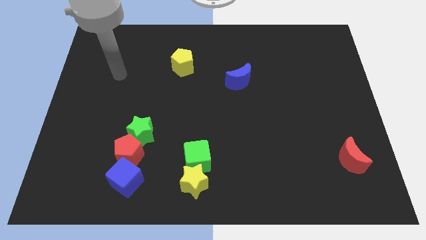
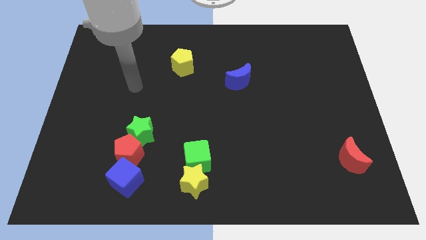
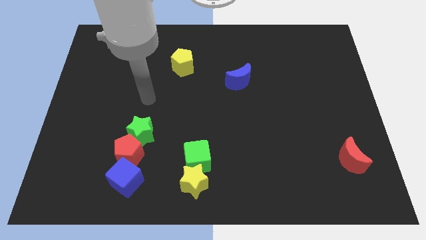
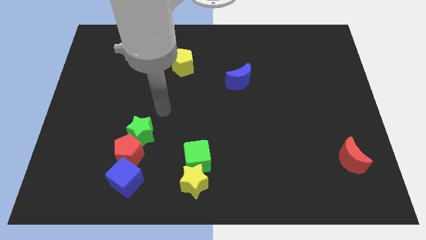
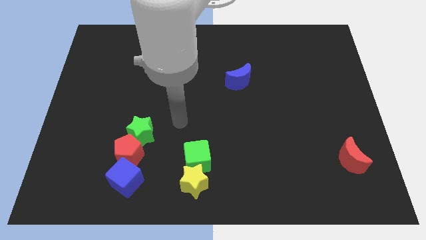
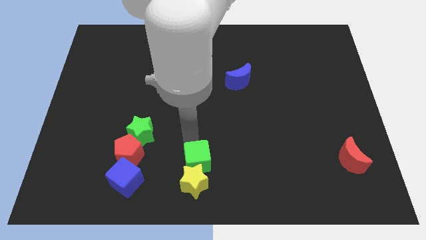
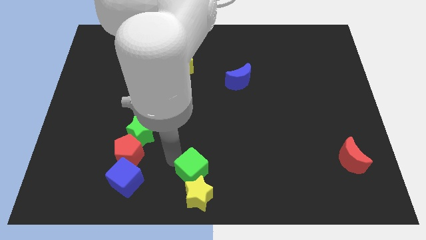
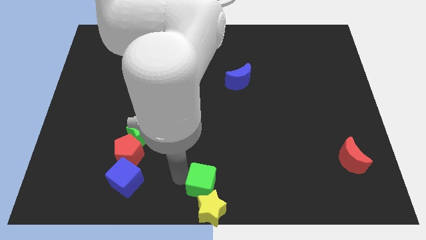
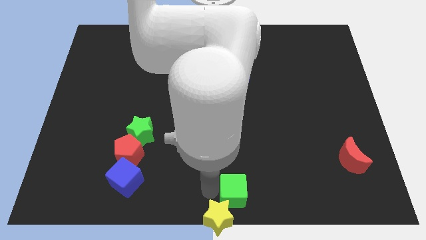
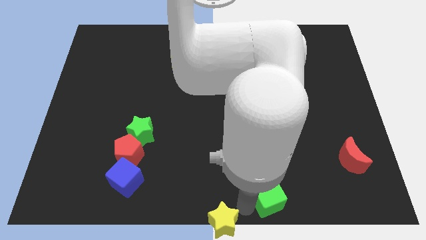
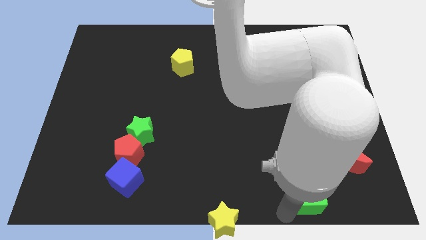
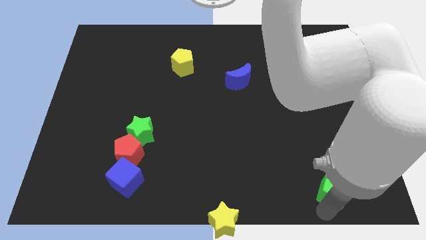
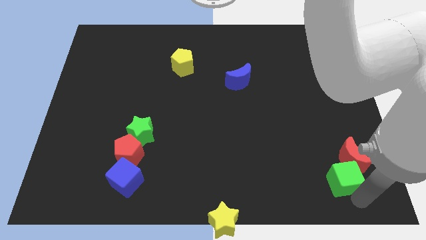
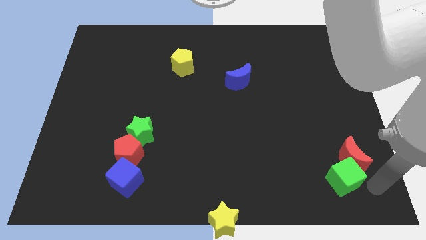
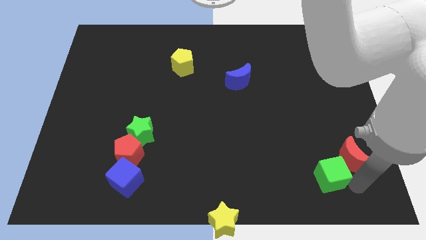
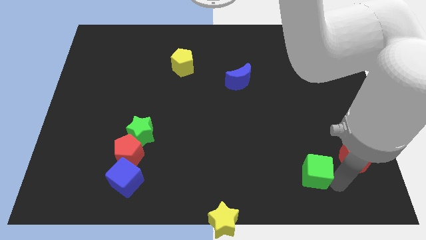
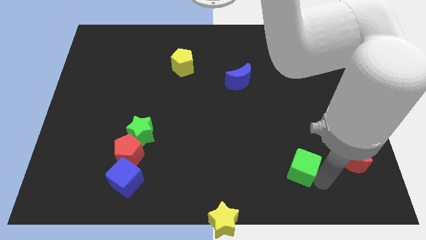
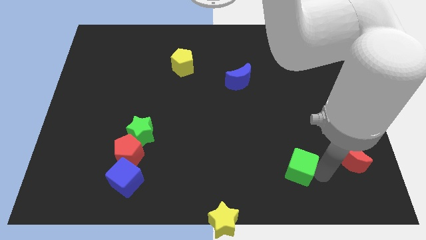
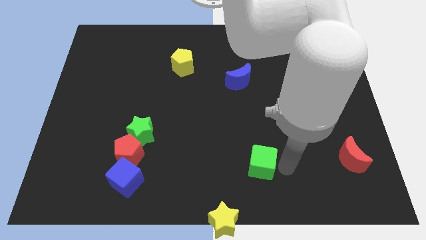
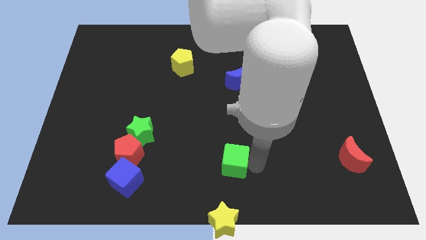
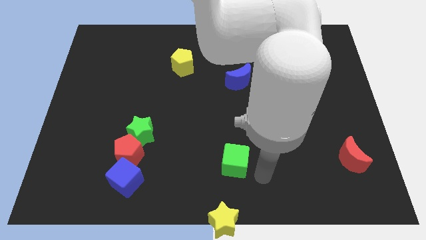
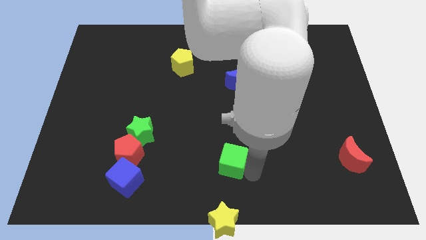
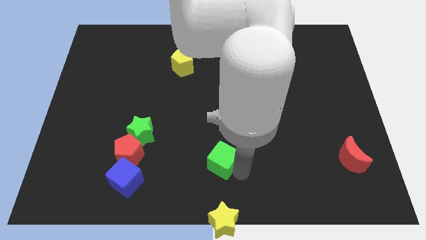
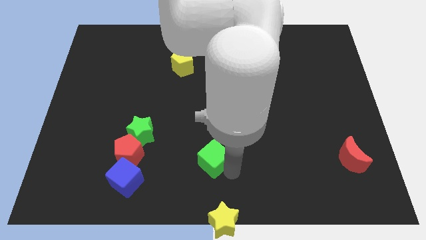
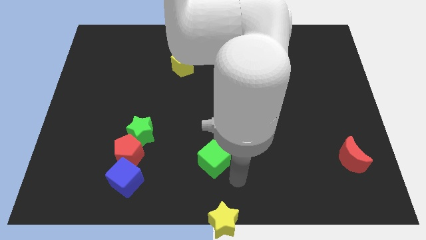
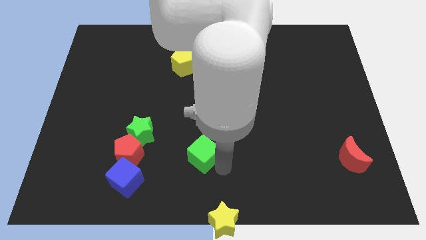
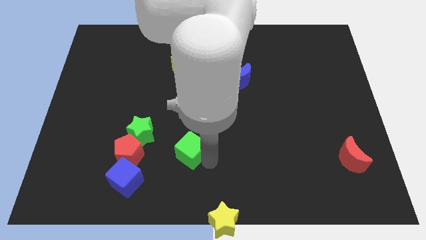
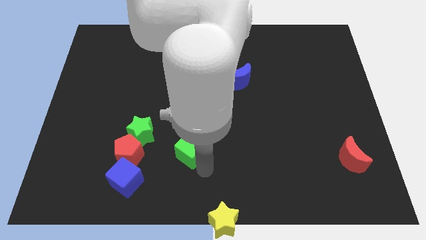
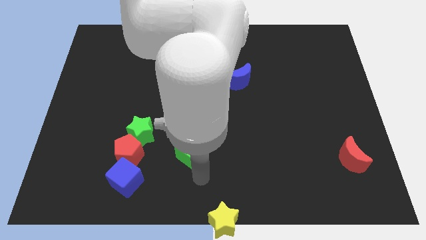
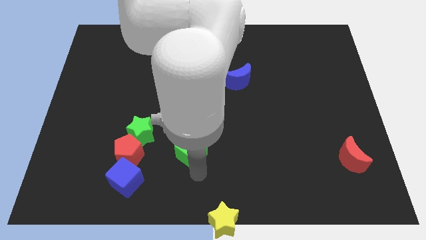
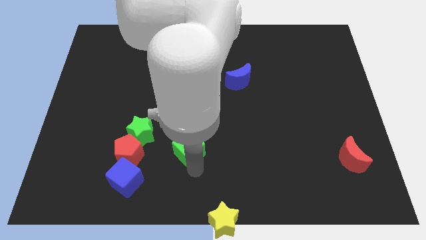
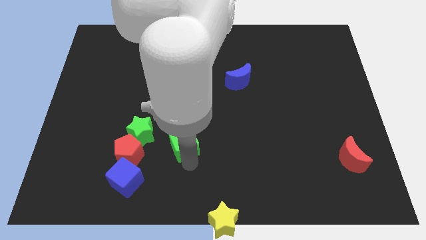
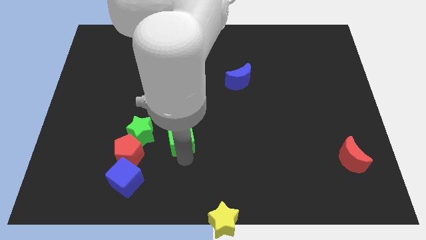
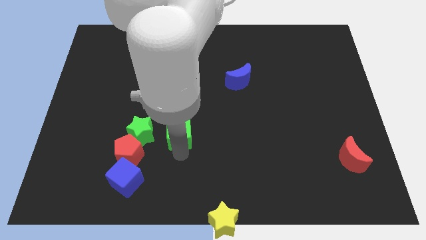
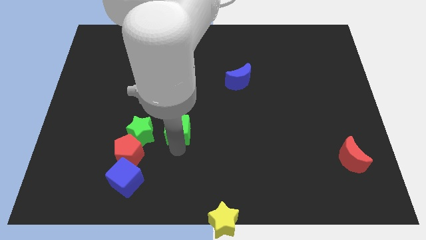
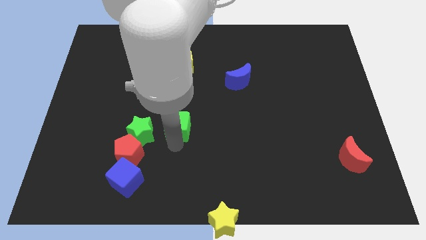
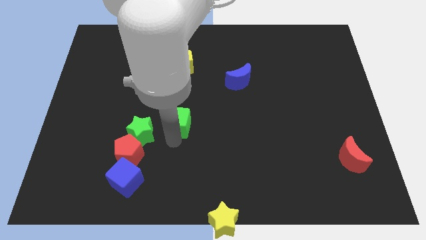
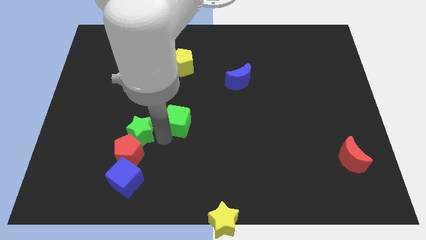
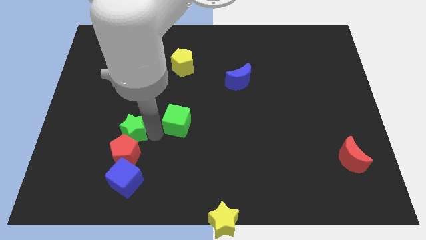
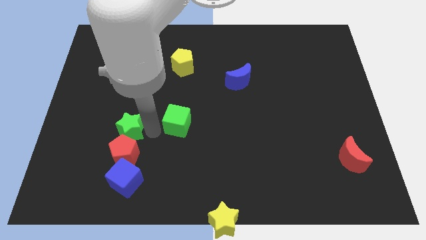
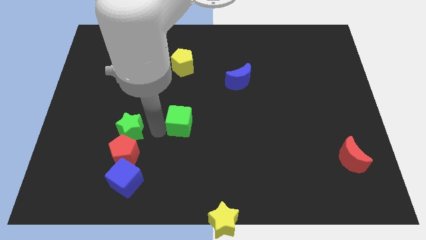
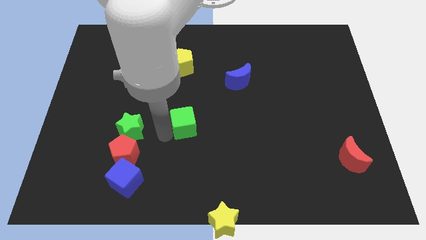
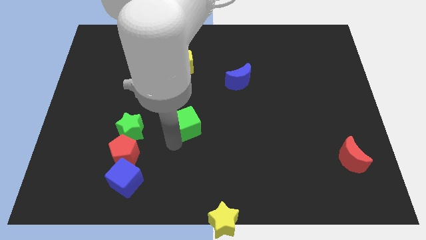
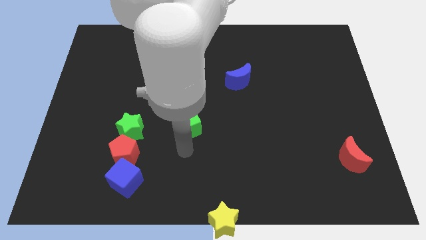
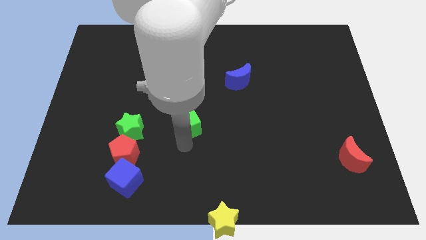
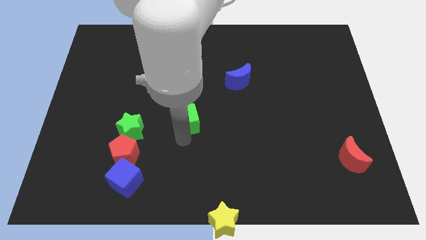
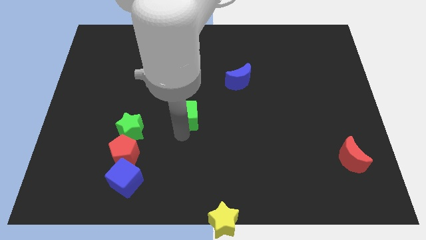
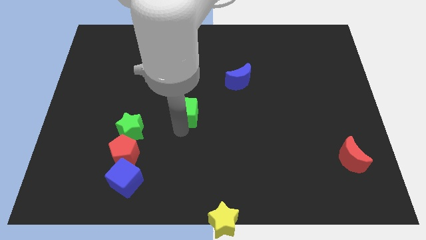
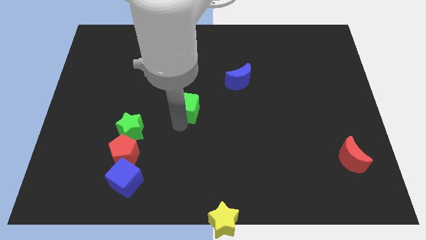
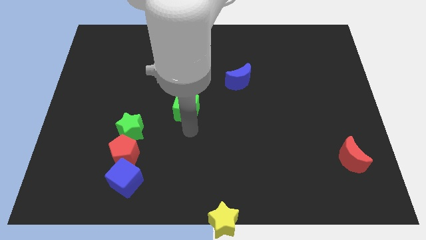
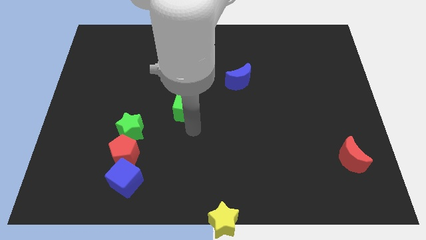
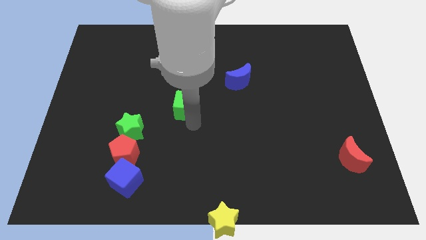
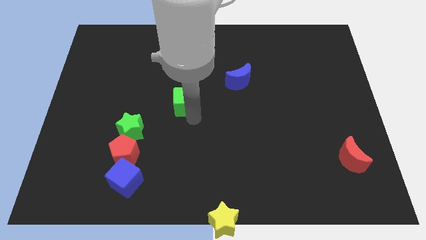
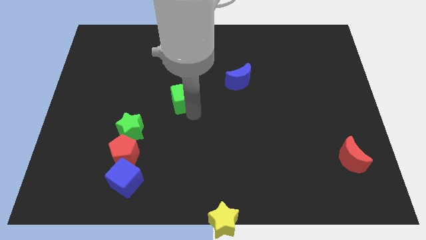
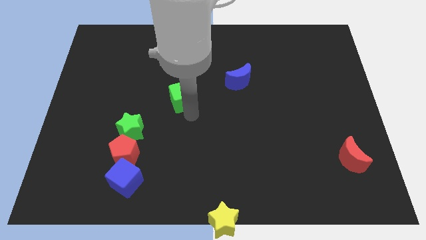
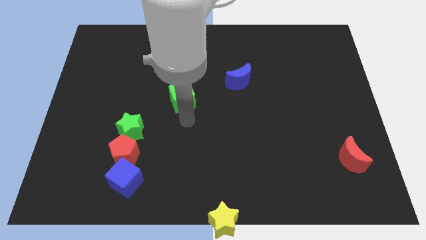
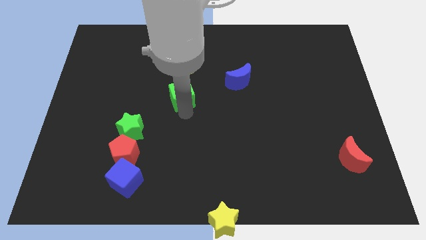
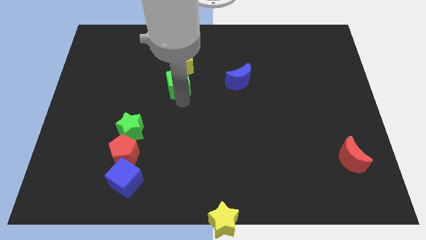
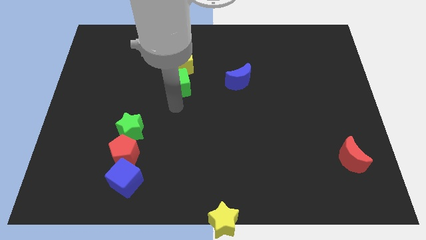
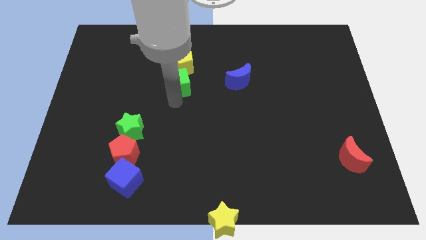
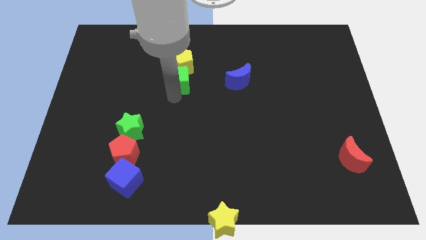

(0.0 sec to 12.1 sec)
slide the green cube to the yellow pentagon

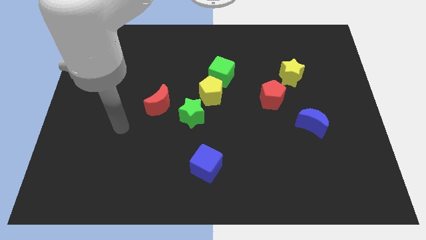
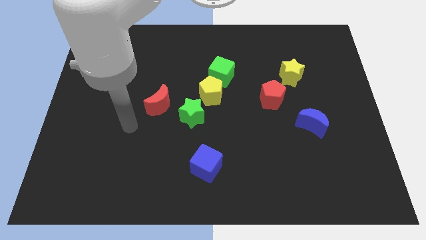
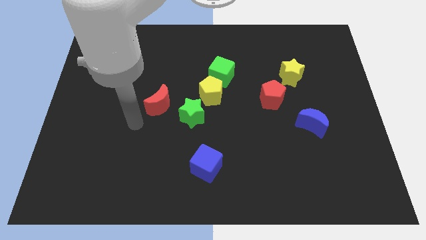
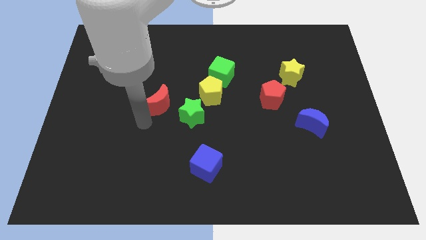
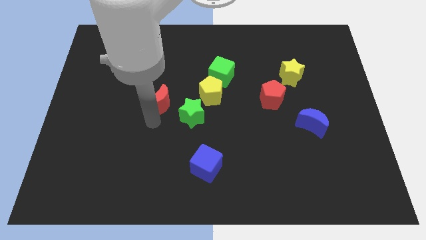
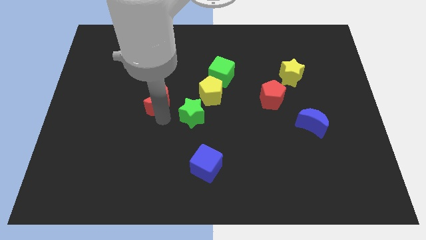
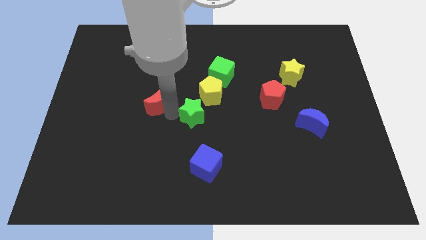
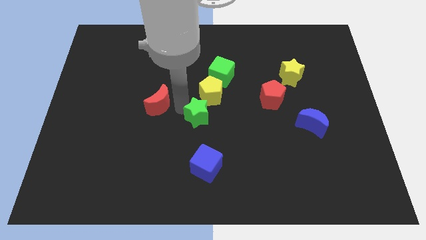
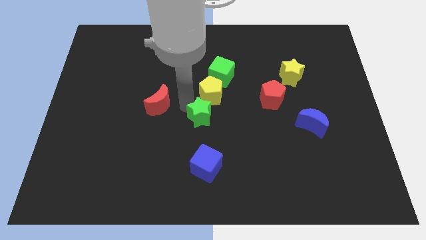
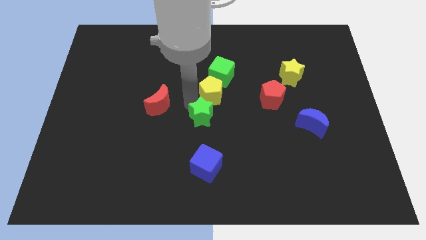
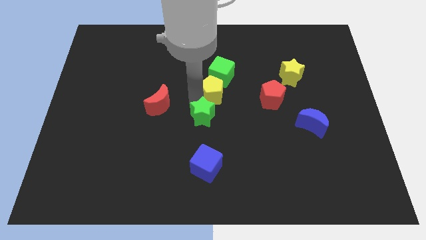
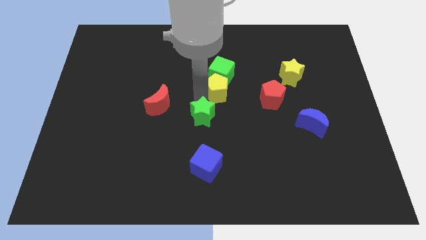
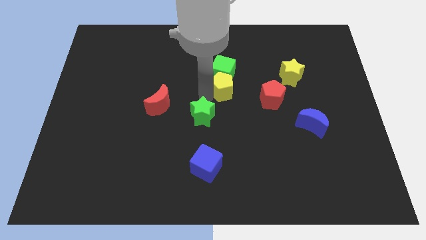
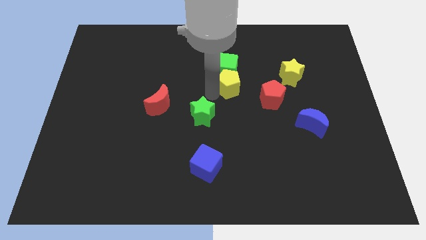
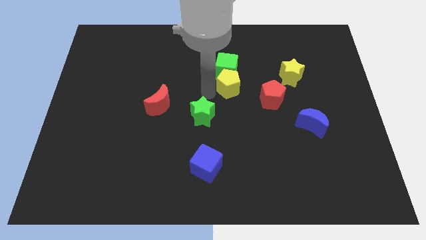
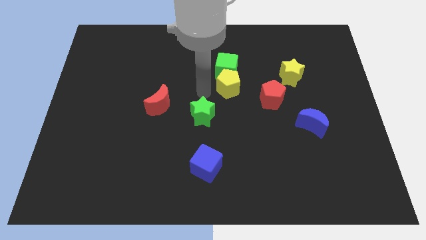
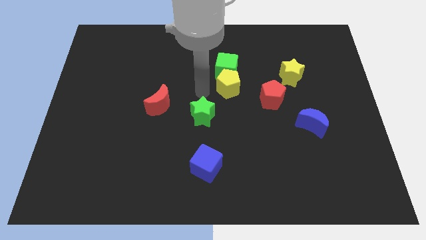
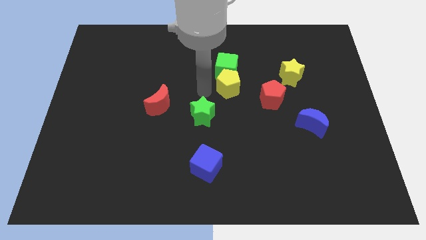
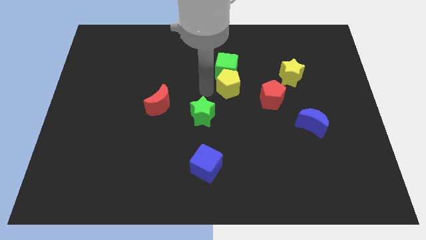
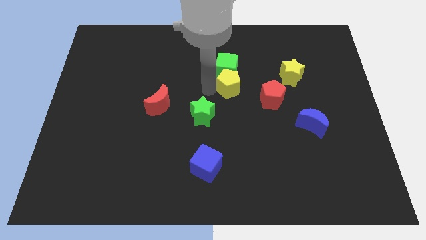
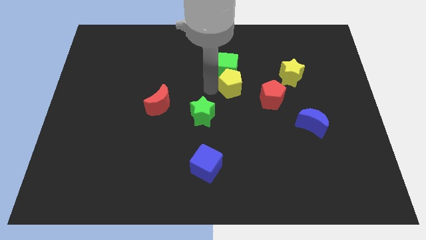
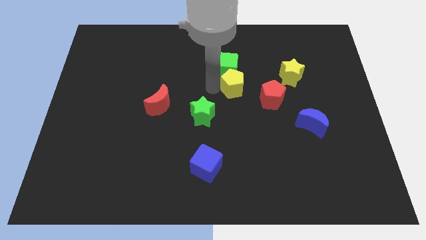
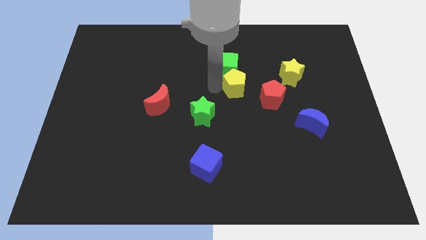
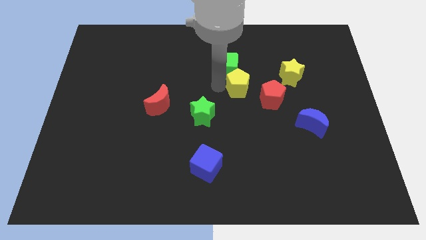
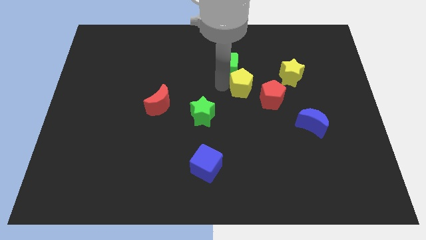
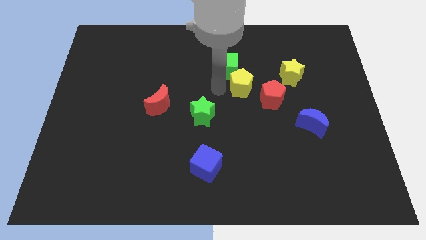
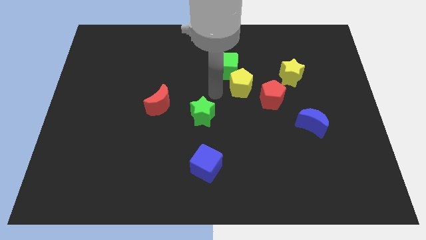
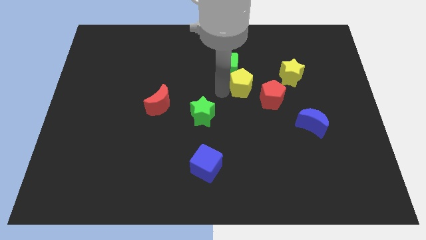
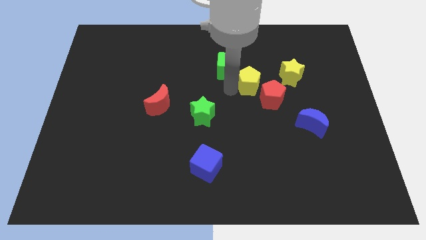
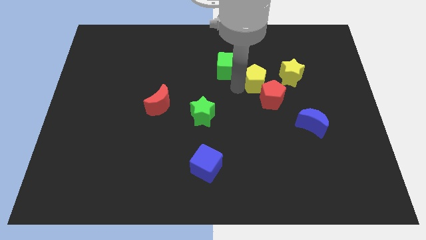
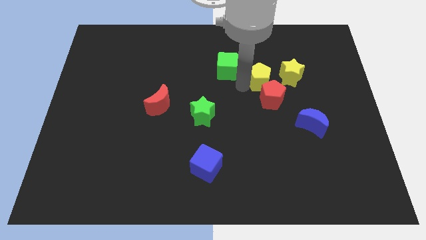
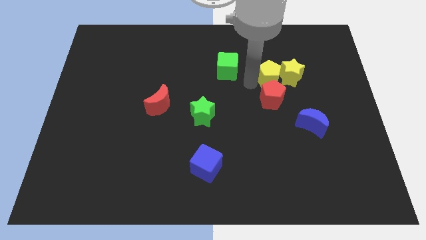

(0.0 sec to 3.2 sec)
put the yellow pentagon close to the yellow star
